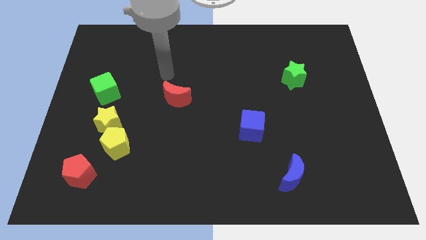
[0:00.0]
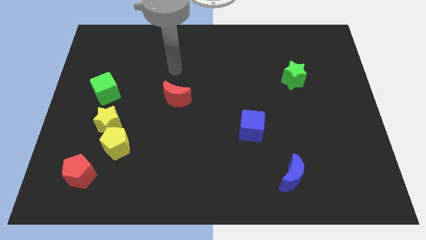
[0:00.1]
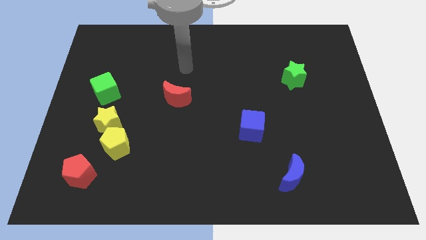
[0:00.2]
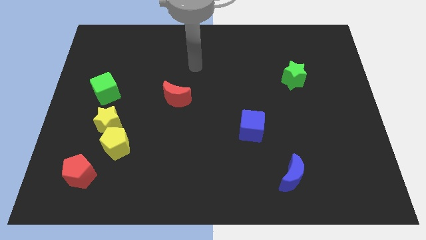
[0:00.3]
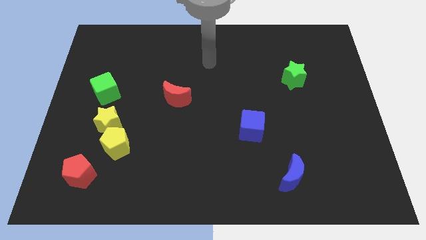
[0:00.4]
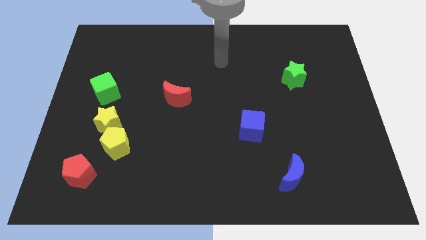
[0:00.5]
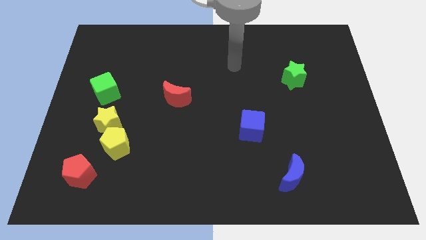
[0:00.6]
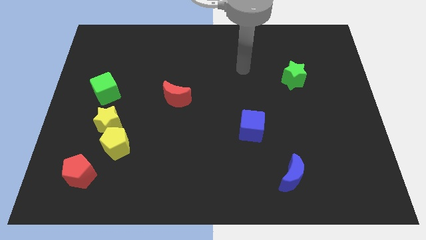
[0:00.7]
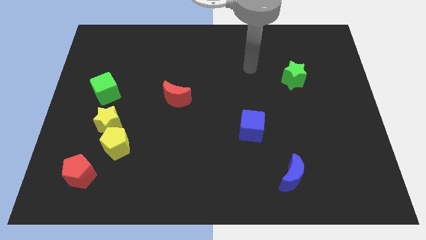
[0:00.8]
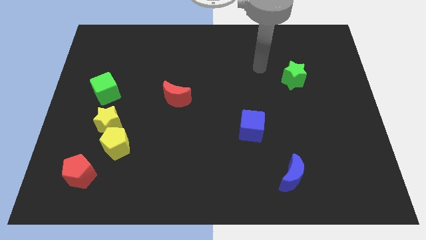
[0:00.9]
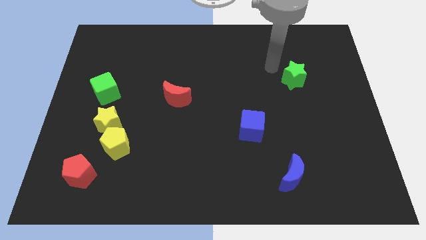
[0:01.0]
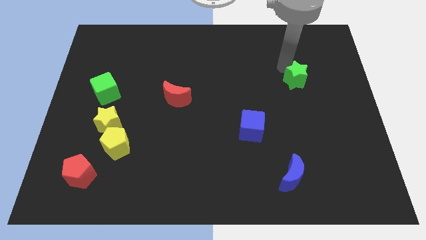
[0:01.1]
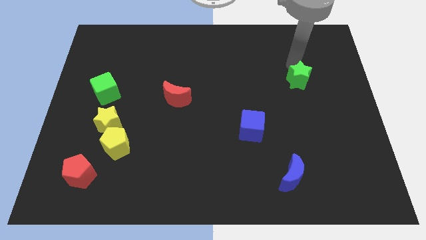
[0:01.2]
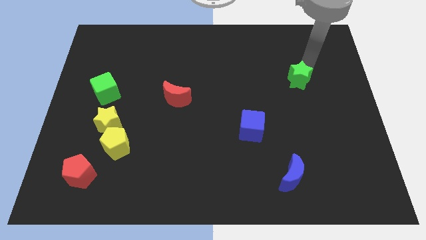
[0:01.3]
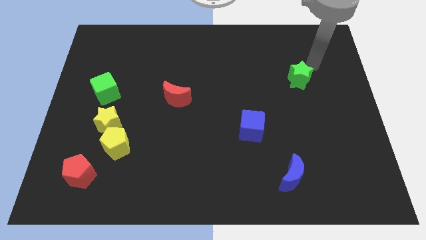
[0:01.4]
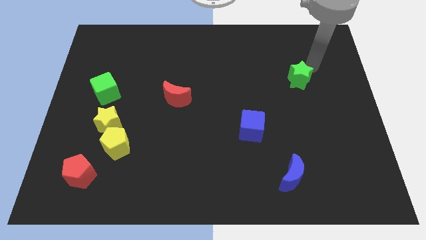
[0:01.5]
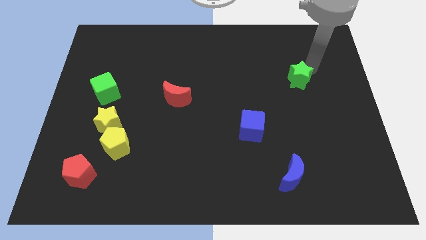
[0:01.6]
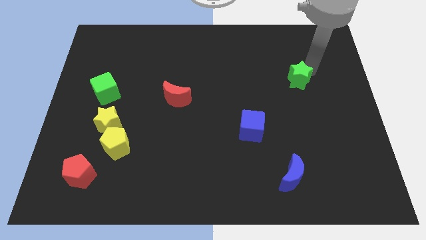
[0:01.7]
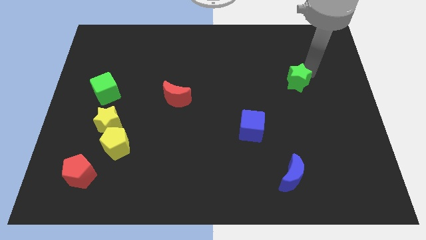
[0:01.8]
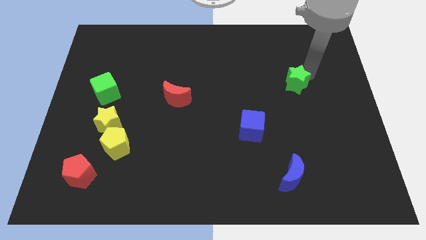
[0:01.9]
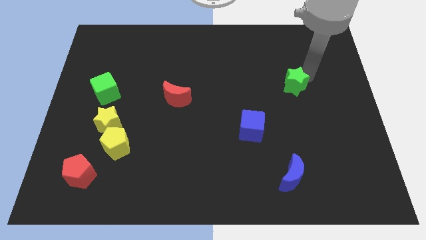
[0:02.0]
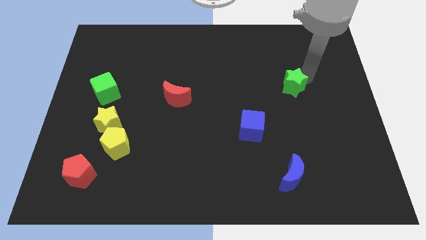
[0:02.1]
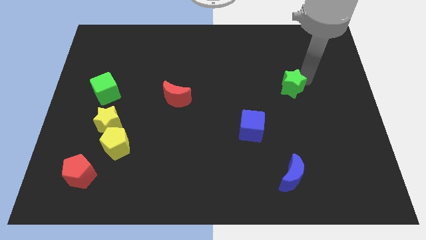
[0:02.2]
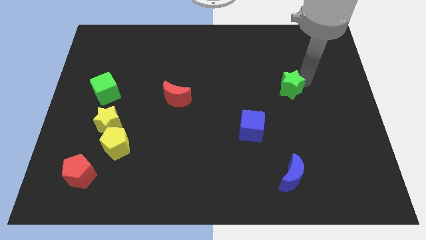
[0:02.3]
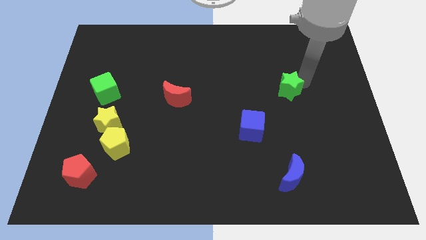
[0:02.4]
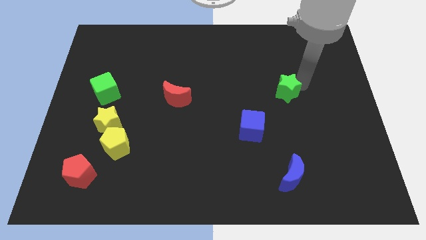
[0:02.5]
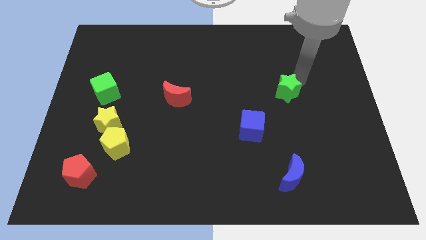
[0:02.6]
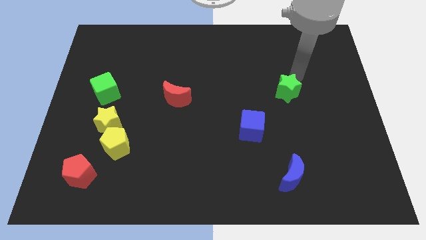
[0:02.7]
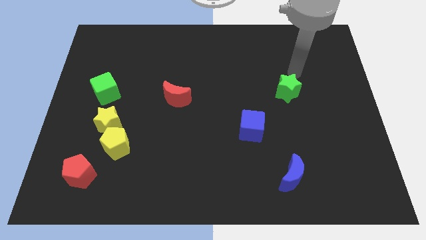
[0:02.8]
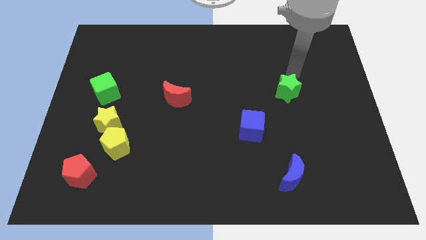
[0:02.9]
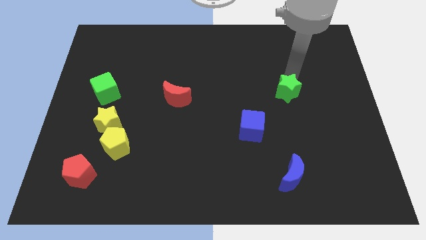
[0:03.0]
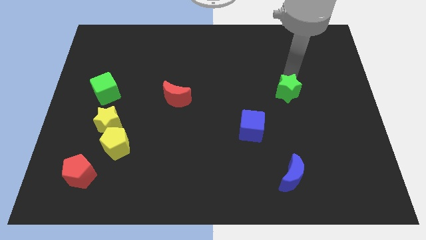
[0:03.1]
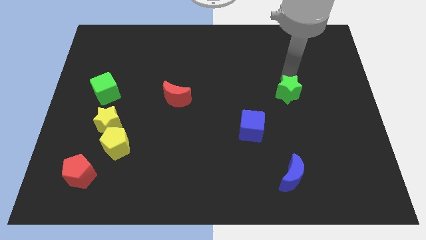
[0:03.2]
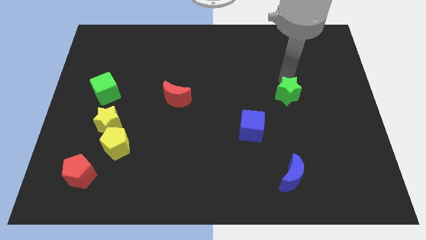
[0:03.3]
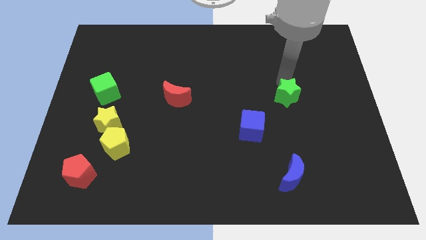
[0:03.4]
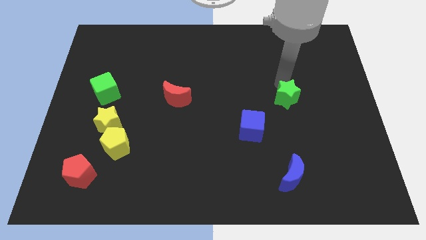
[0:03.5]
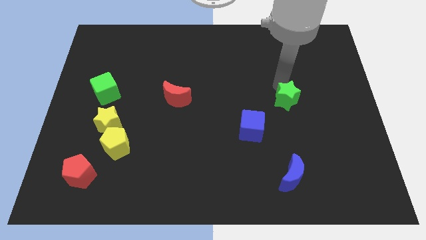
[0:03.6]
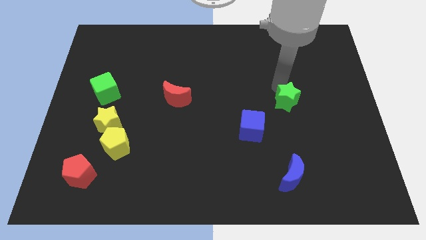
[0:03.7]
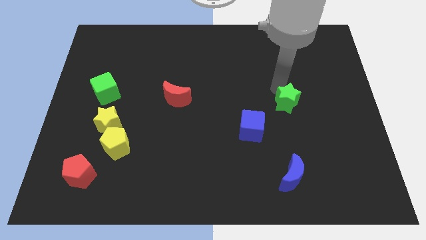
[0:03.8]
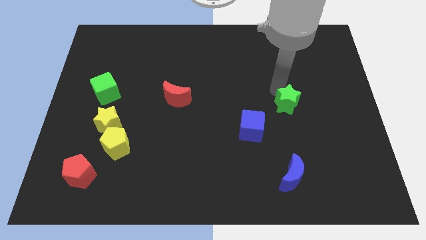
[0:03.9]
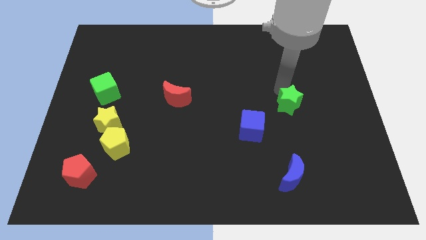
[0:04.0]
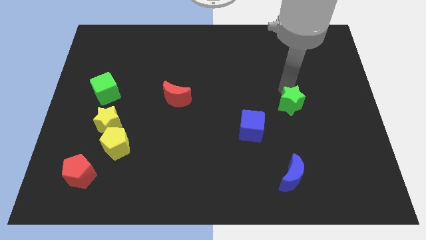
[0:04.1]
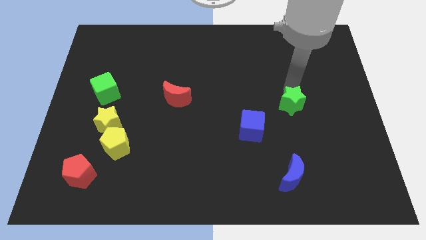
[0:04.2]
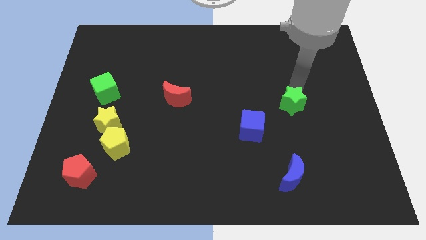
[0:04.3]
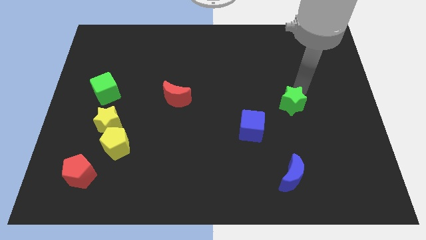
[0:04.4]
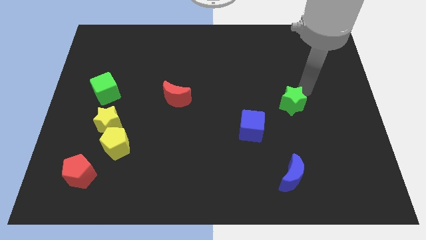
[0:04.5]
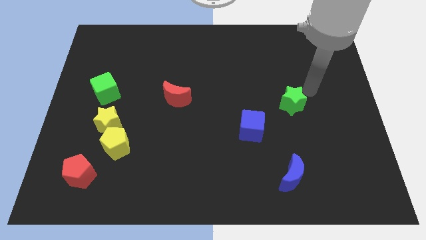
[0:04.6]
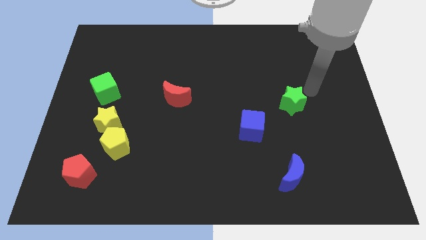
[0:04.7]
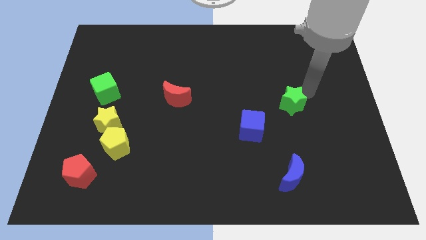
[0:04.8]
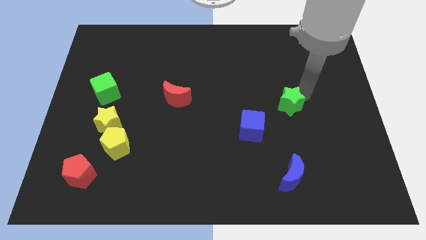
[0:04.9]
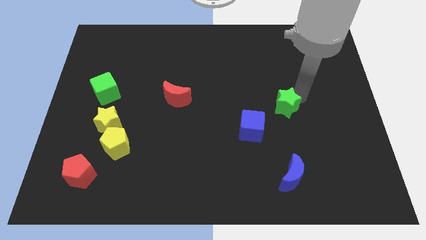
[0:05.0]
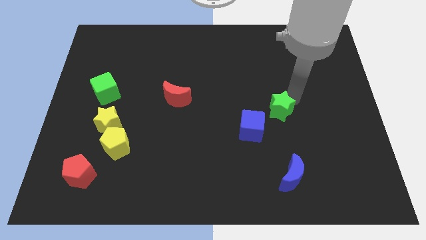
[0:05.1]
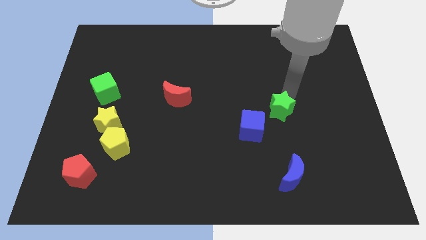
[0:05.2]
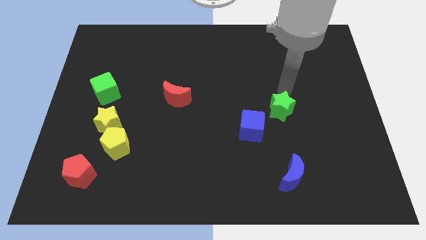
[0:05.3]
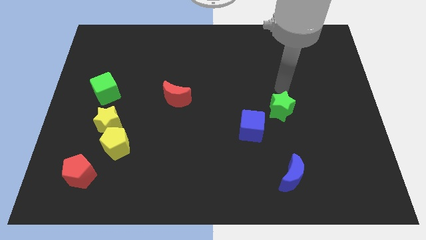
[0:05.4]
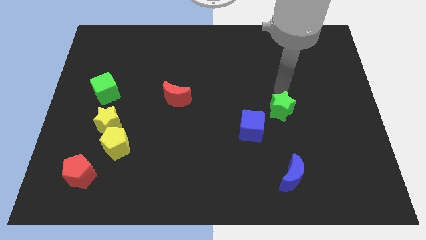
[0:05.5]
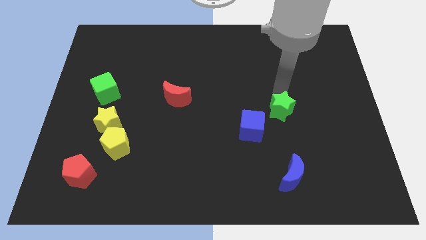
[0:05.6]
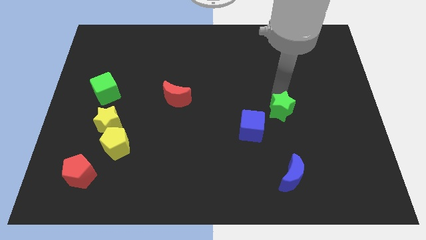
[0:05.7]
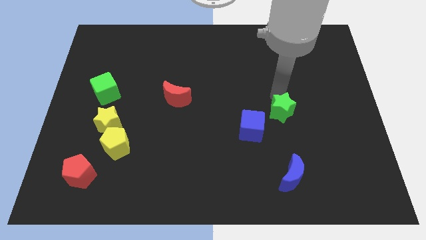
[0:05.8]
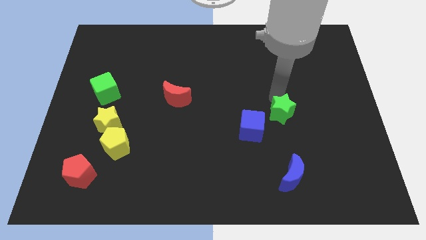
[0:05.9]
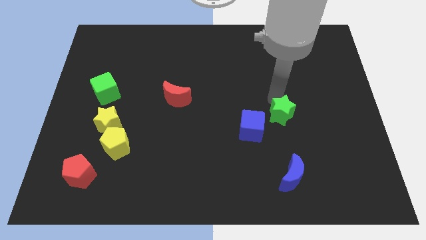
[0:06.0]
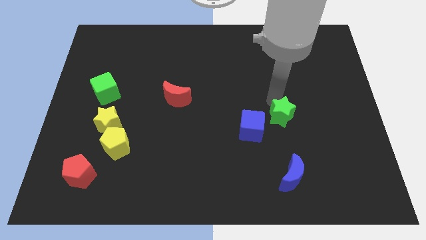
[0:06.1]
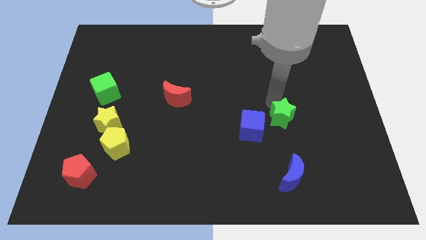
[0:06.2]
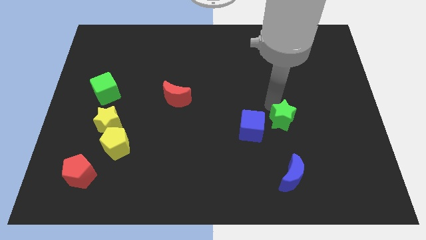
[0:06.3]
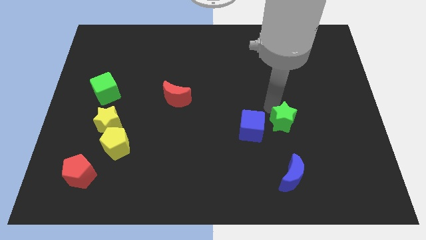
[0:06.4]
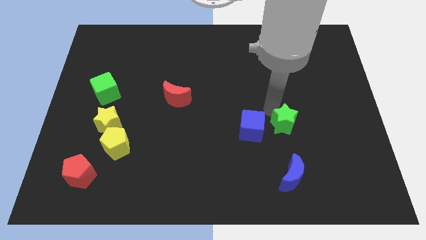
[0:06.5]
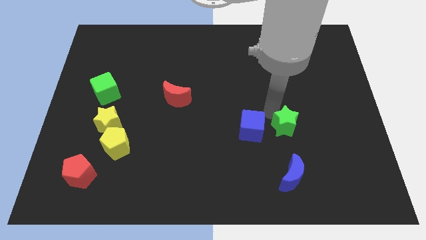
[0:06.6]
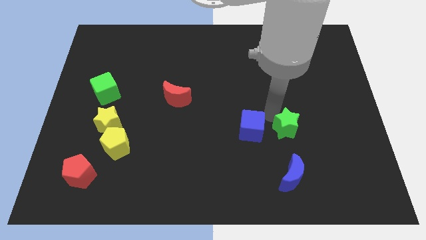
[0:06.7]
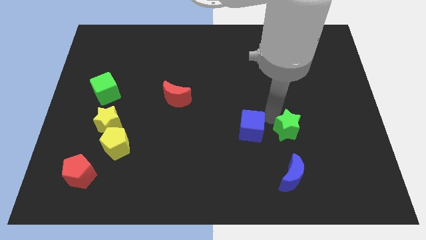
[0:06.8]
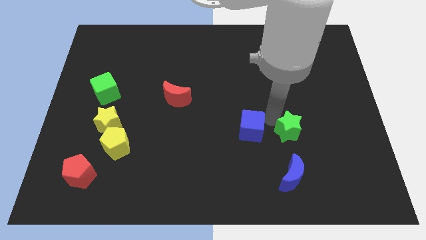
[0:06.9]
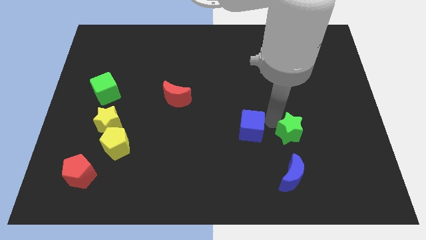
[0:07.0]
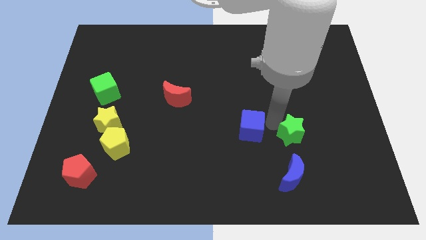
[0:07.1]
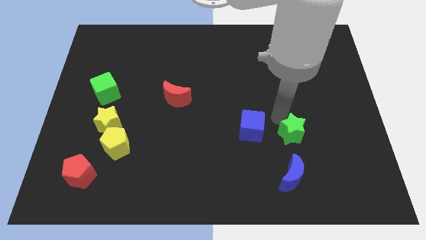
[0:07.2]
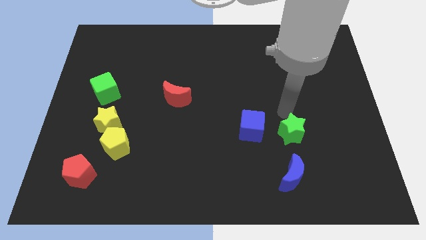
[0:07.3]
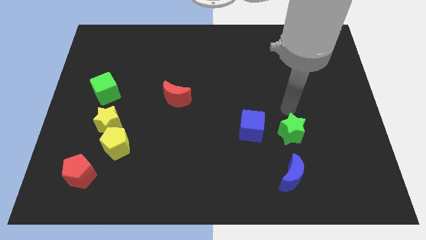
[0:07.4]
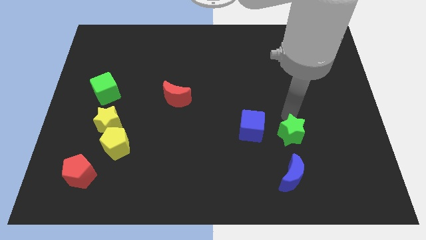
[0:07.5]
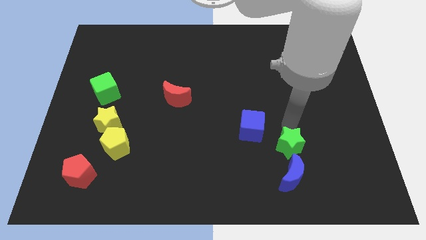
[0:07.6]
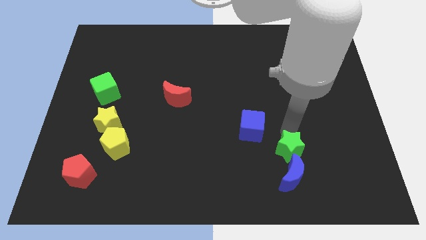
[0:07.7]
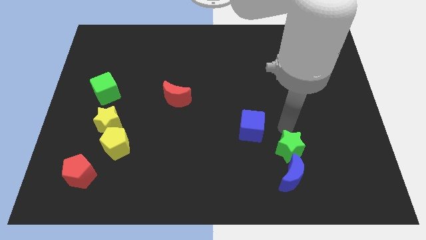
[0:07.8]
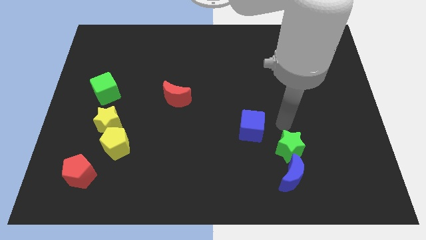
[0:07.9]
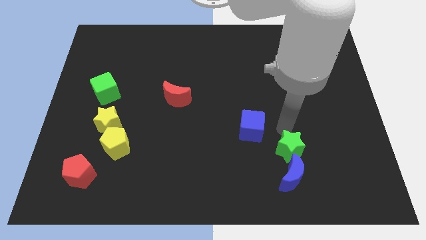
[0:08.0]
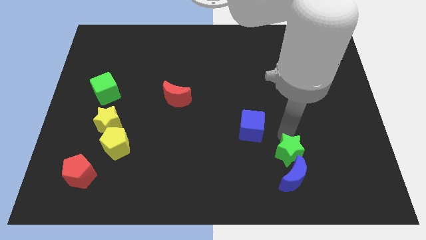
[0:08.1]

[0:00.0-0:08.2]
slide the green star towards the blue moon
